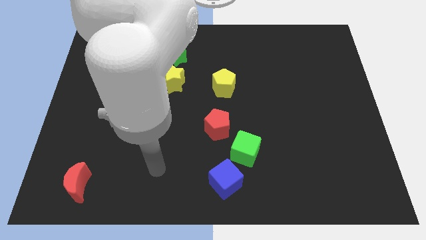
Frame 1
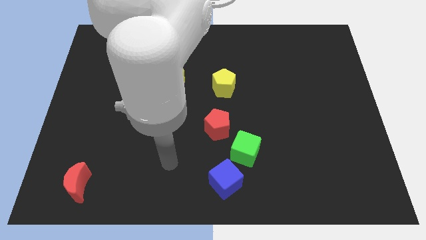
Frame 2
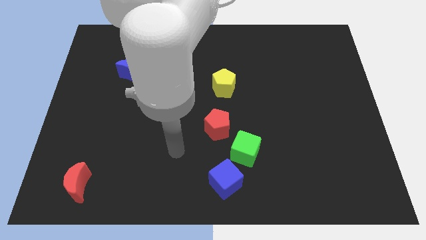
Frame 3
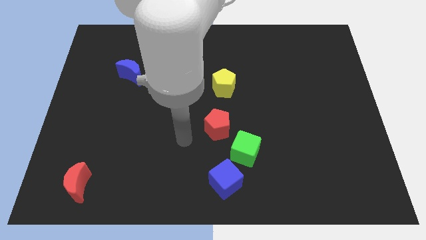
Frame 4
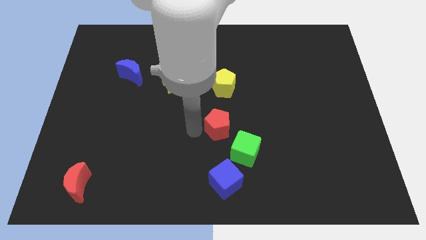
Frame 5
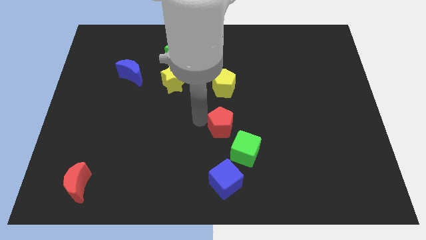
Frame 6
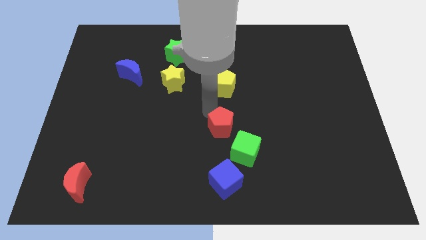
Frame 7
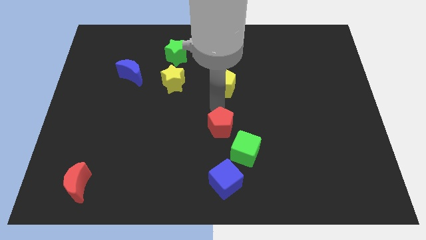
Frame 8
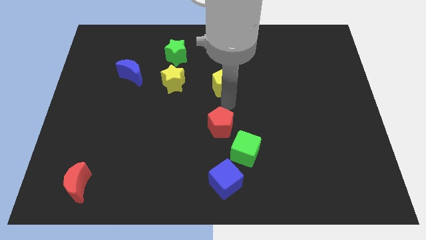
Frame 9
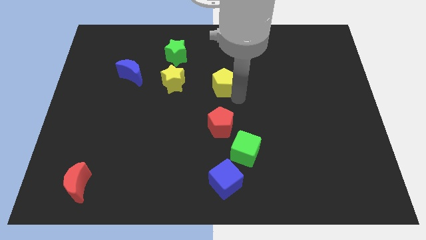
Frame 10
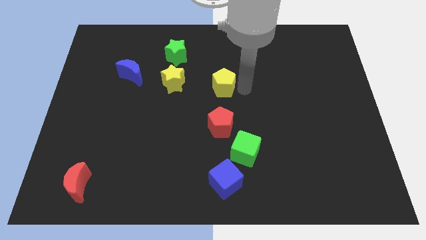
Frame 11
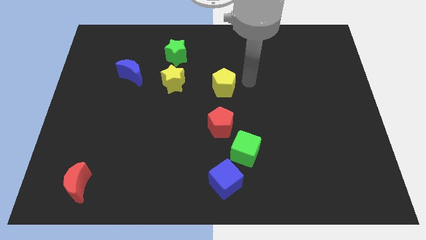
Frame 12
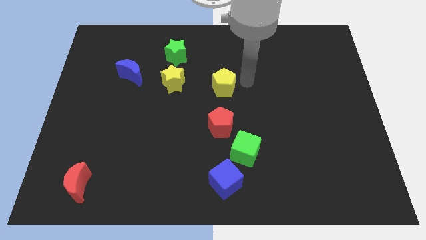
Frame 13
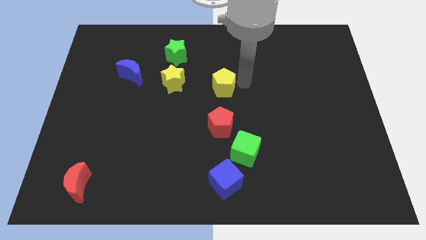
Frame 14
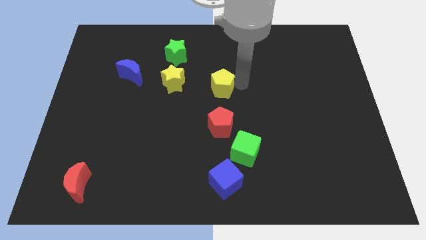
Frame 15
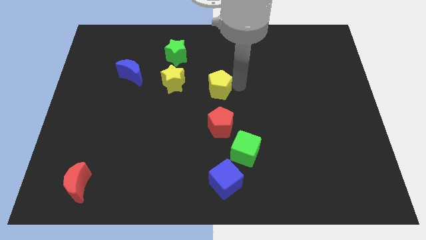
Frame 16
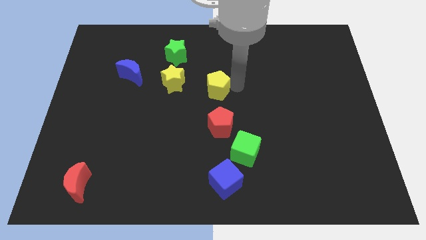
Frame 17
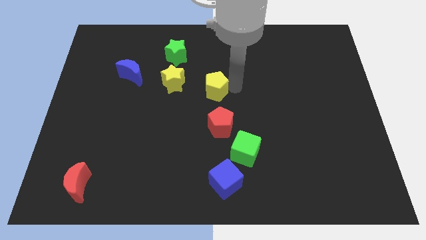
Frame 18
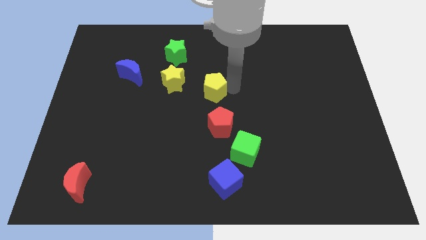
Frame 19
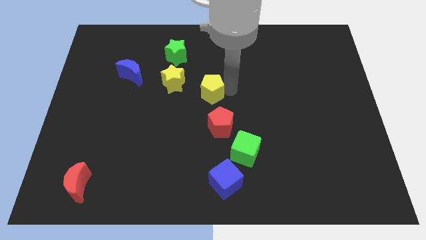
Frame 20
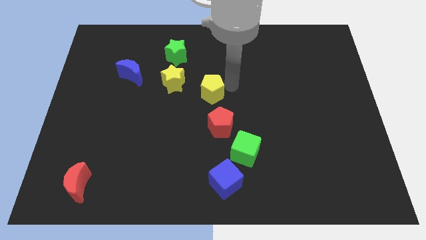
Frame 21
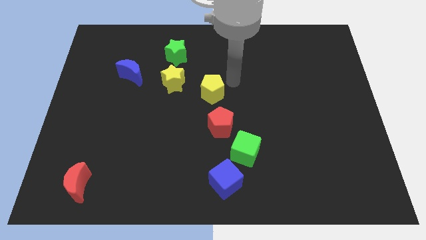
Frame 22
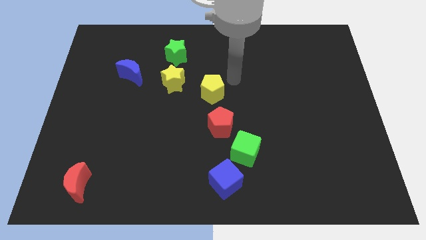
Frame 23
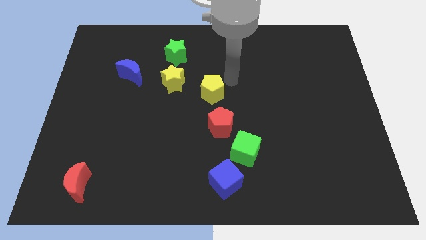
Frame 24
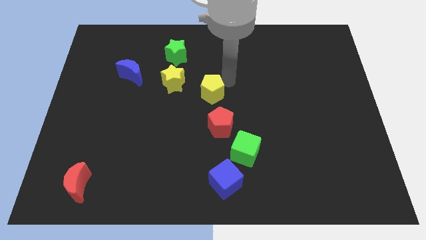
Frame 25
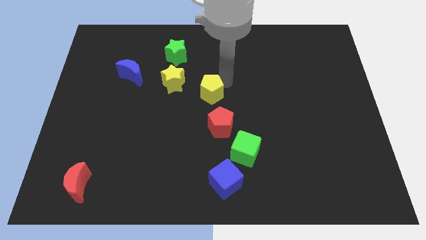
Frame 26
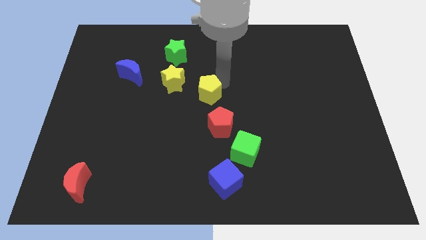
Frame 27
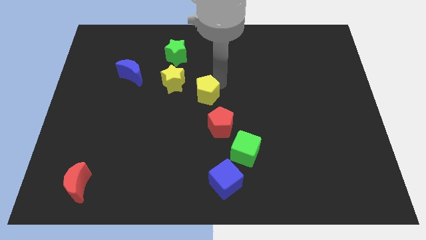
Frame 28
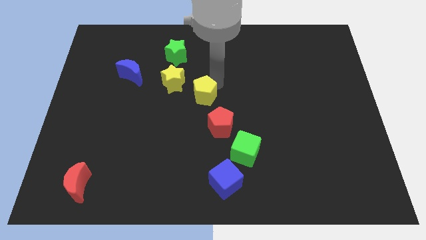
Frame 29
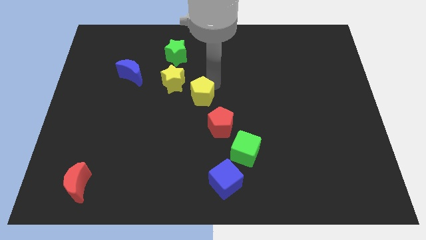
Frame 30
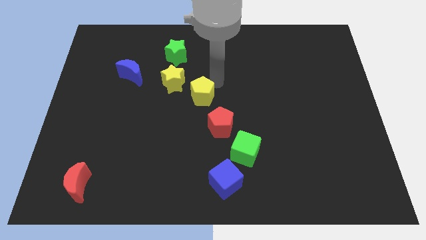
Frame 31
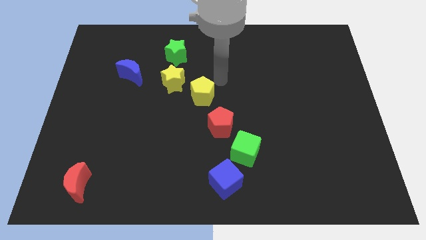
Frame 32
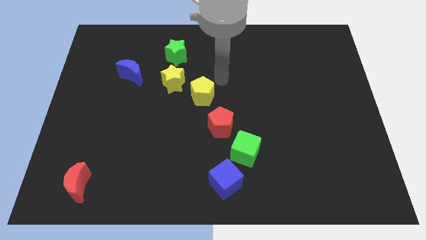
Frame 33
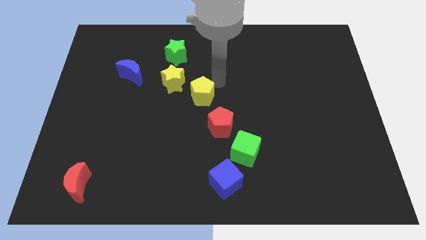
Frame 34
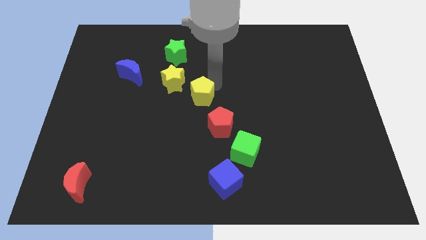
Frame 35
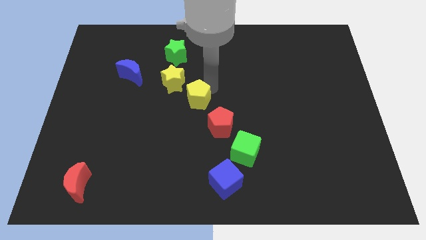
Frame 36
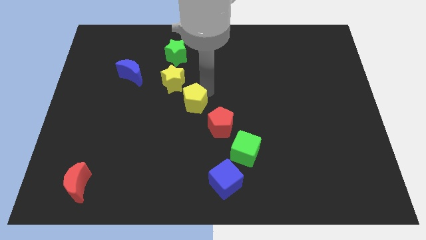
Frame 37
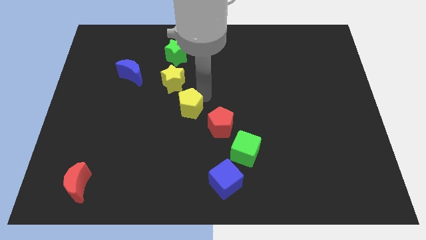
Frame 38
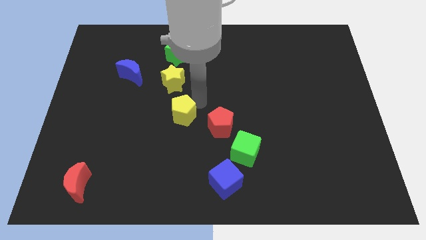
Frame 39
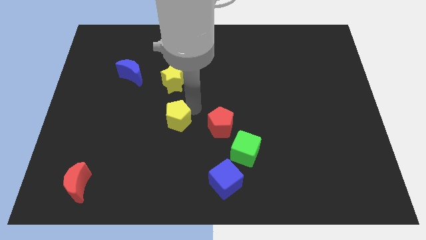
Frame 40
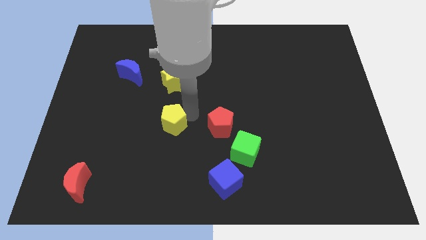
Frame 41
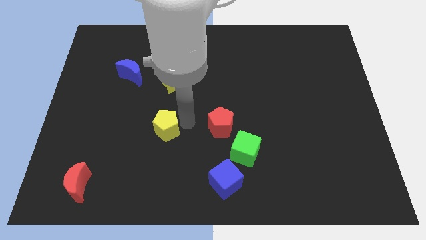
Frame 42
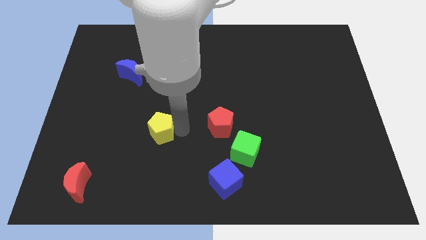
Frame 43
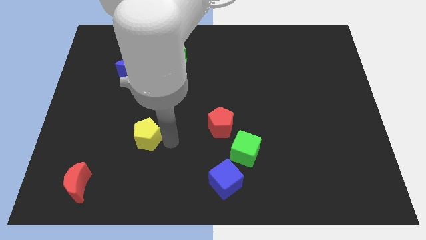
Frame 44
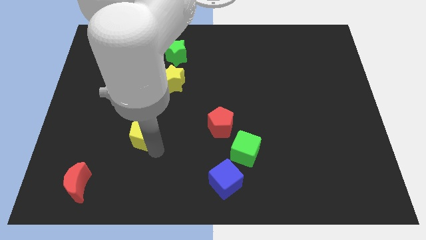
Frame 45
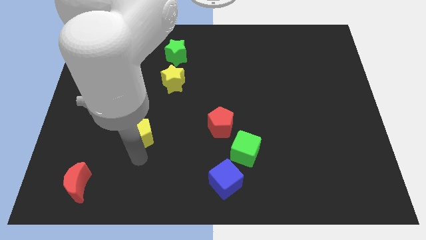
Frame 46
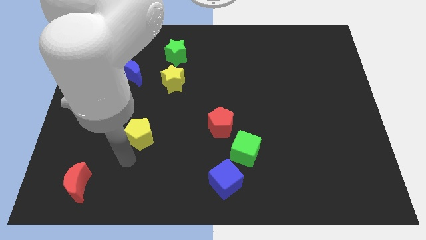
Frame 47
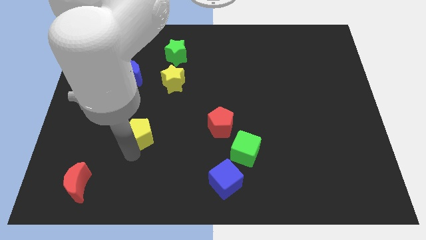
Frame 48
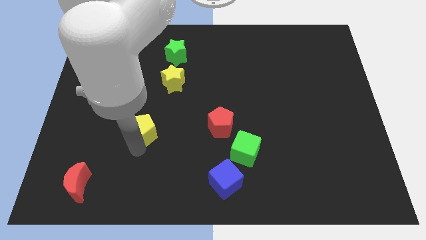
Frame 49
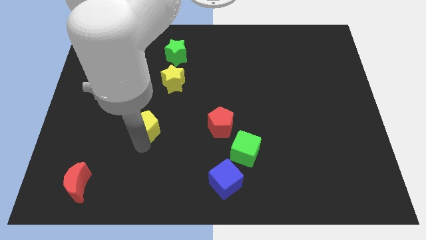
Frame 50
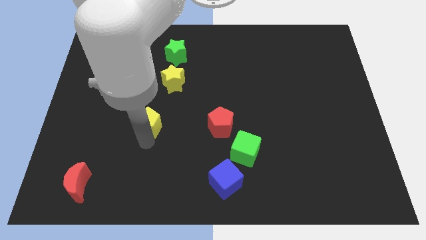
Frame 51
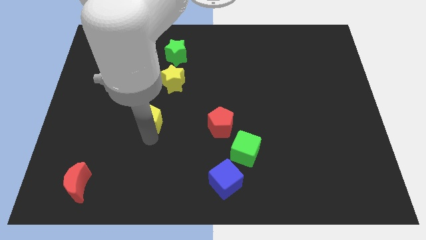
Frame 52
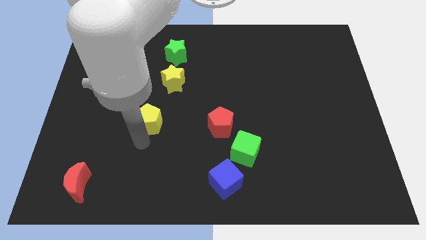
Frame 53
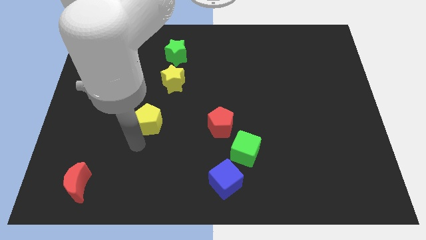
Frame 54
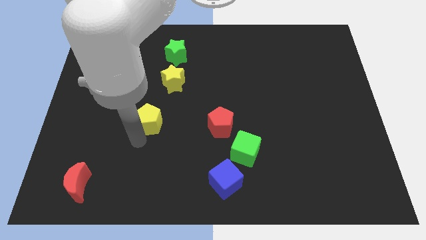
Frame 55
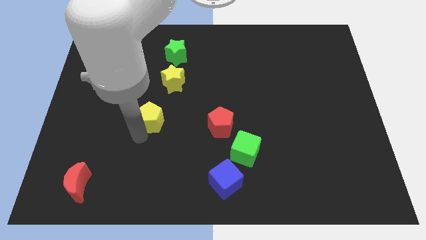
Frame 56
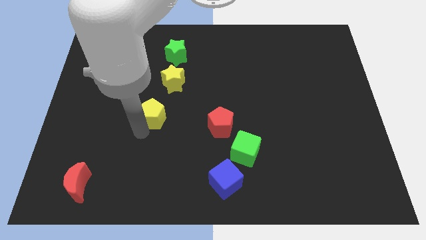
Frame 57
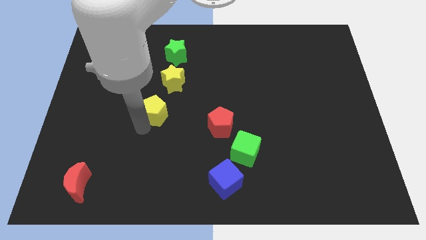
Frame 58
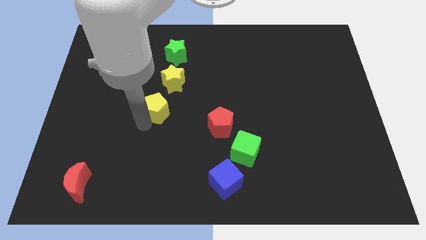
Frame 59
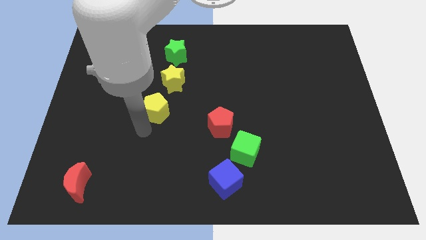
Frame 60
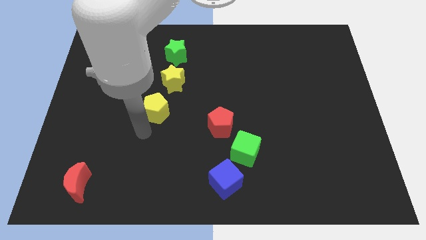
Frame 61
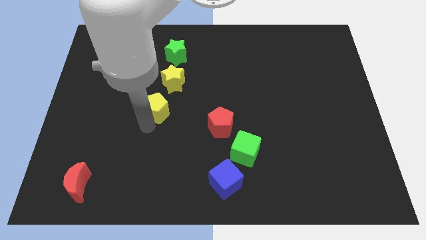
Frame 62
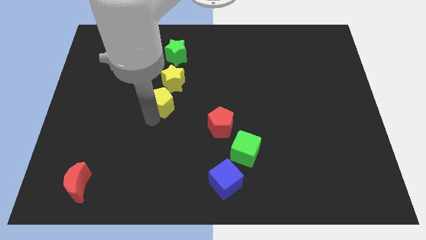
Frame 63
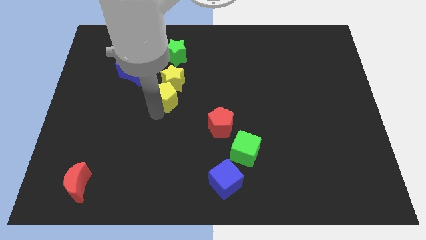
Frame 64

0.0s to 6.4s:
push the yellow pentagon below the green star

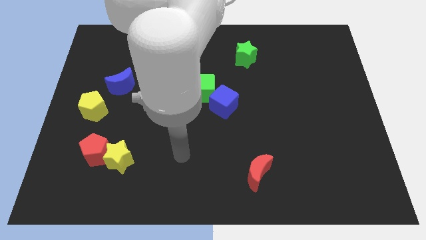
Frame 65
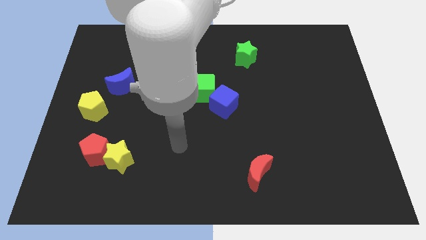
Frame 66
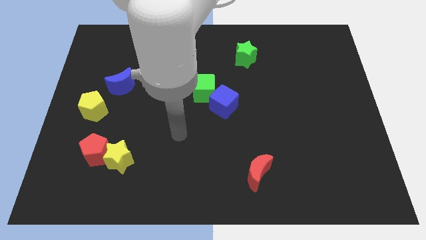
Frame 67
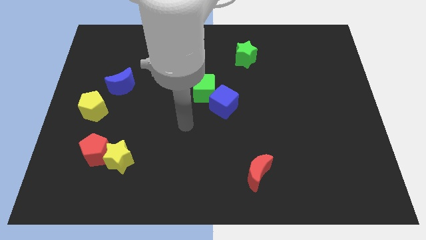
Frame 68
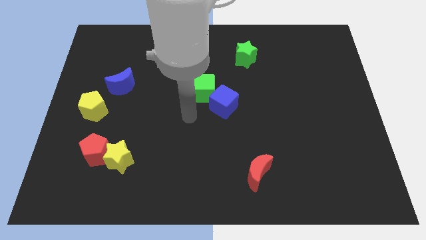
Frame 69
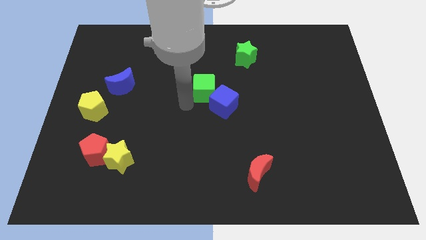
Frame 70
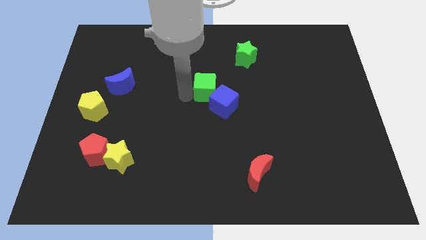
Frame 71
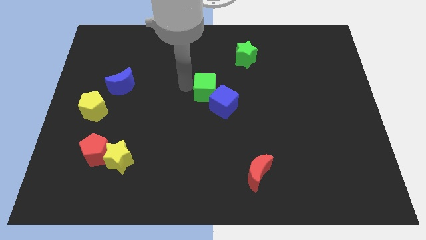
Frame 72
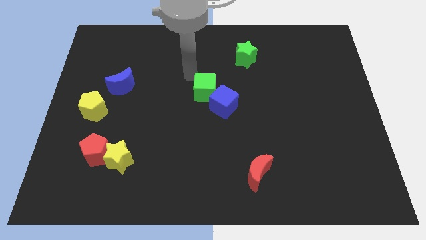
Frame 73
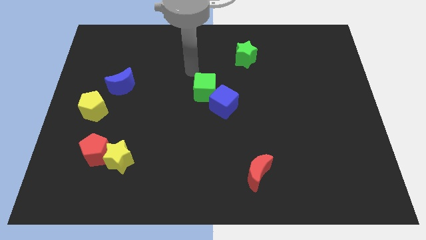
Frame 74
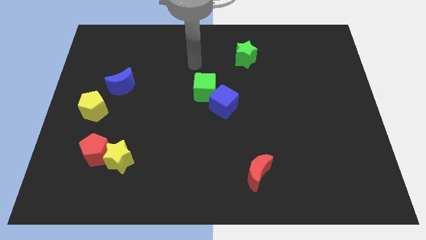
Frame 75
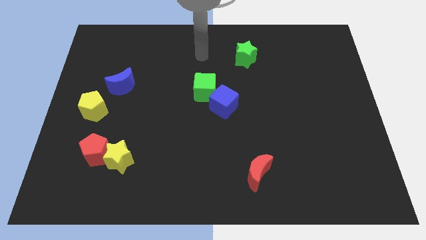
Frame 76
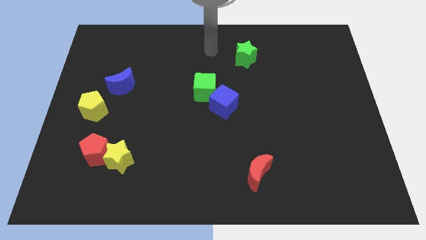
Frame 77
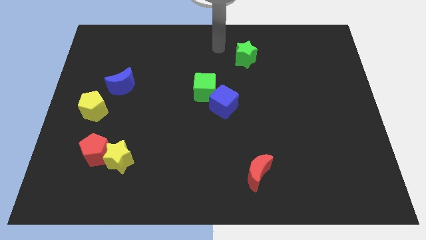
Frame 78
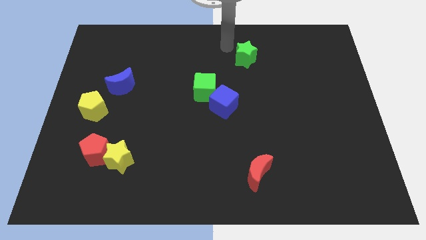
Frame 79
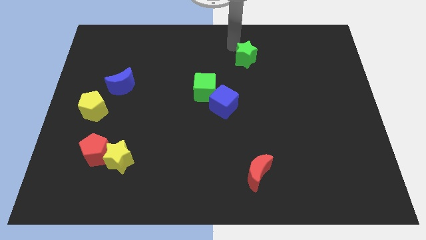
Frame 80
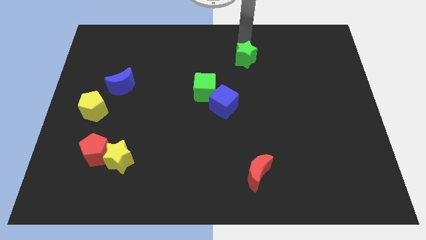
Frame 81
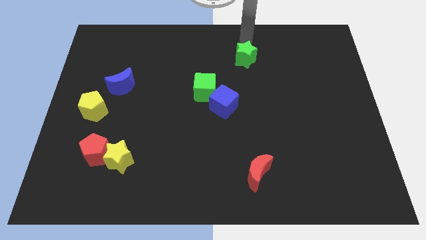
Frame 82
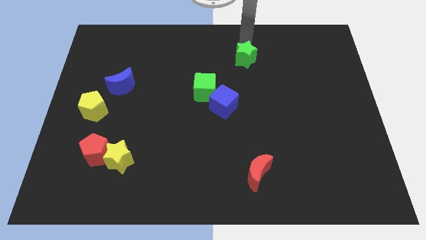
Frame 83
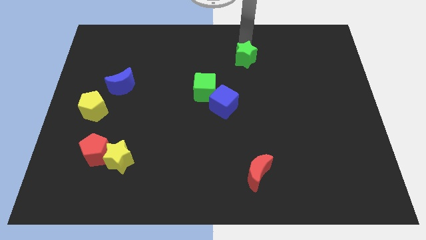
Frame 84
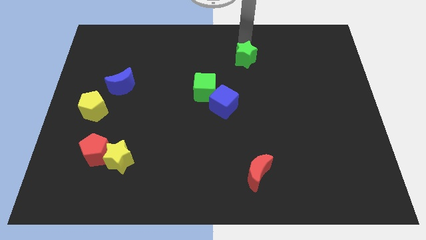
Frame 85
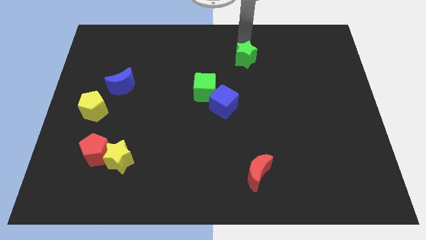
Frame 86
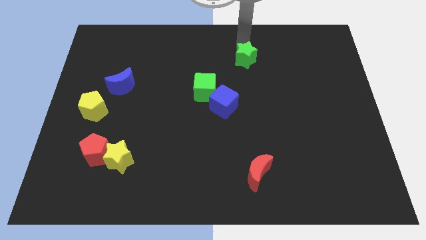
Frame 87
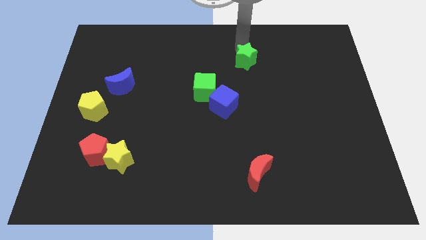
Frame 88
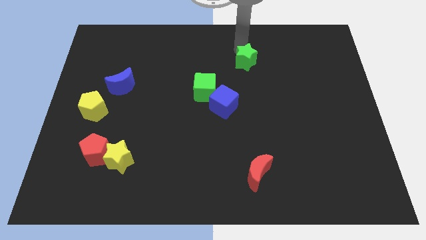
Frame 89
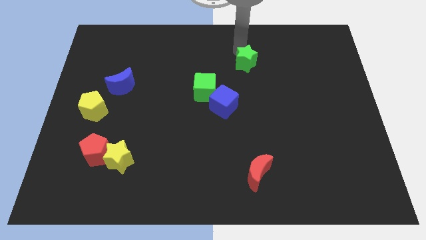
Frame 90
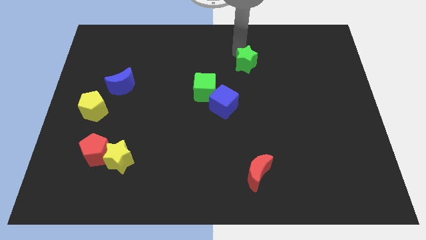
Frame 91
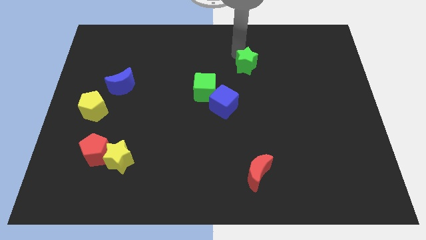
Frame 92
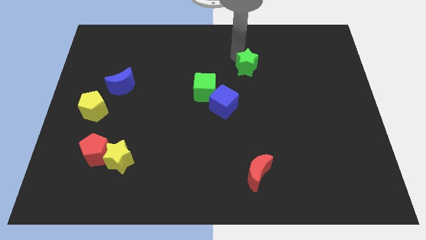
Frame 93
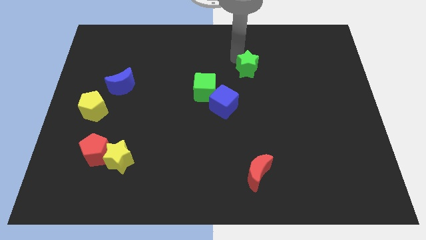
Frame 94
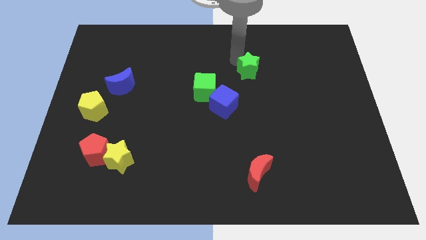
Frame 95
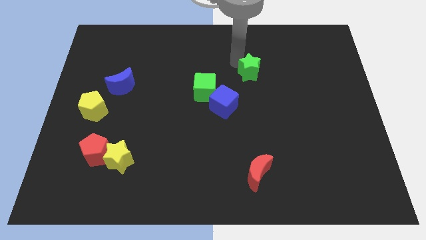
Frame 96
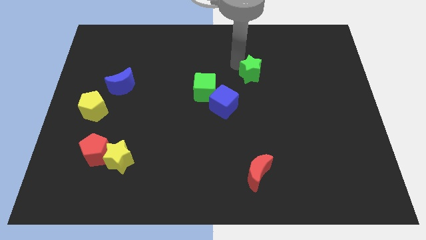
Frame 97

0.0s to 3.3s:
move the green star to the top right side of the blue cube
